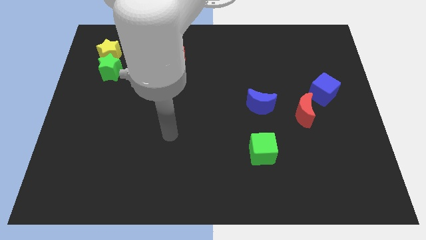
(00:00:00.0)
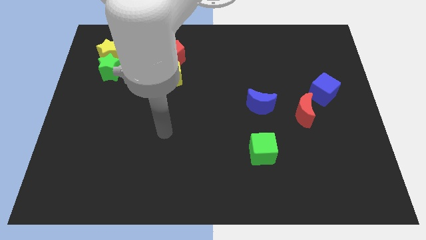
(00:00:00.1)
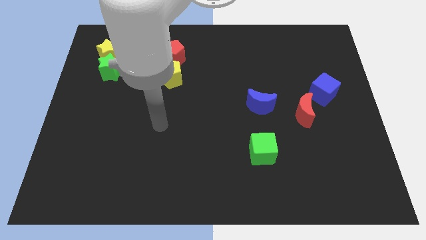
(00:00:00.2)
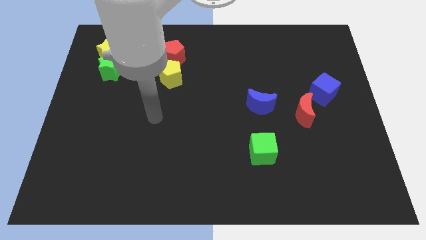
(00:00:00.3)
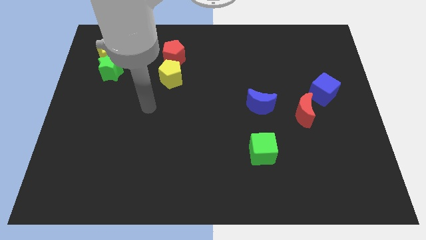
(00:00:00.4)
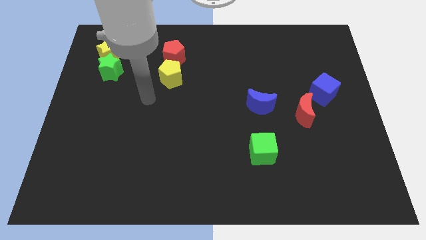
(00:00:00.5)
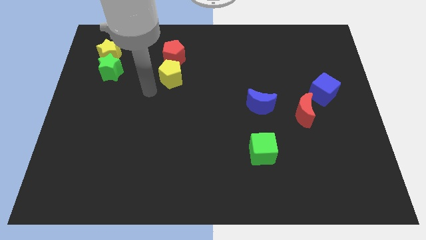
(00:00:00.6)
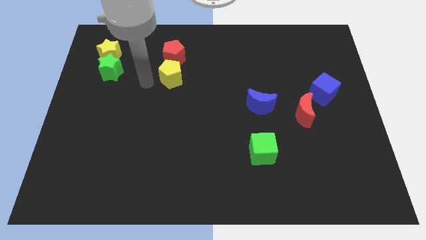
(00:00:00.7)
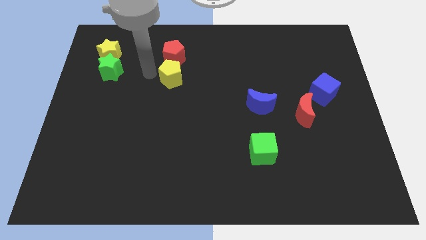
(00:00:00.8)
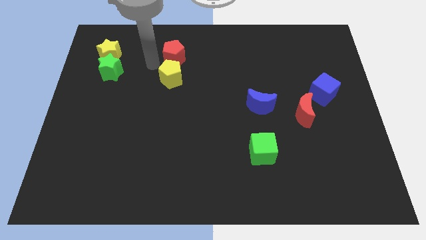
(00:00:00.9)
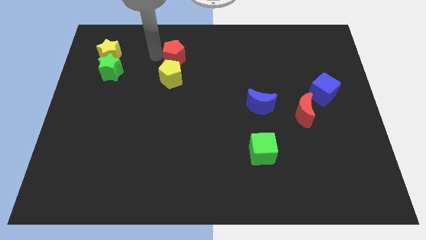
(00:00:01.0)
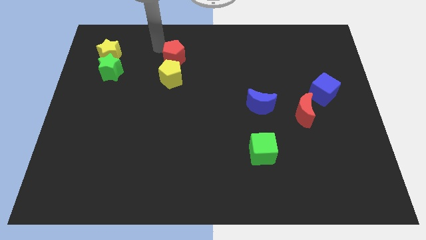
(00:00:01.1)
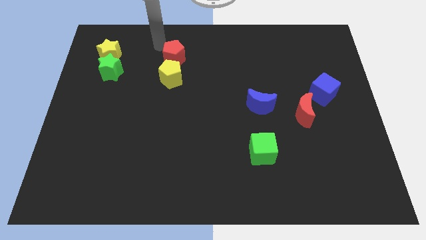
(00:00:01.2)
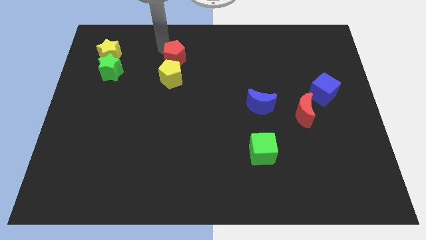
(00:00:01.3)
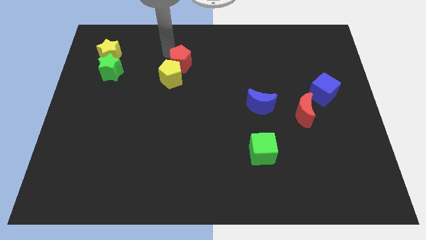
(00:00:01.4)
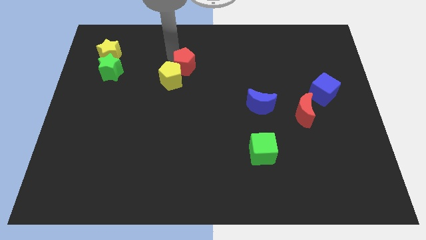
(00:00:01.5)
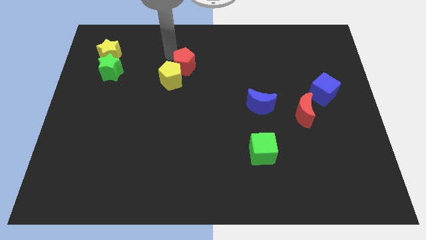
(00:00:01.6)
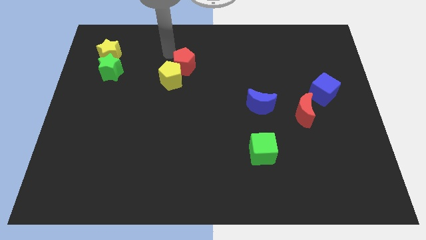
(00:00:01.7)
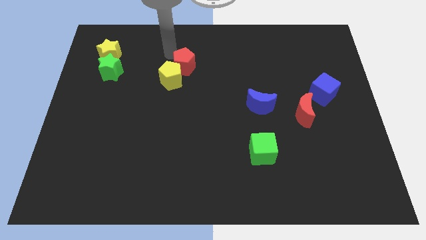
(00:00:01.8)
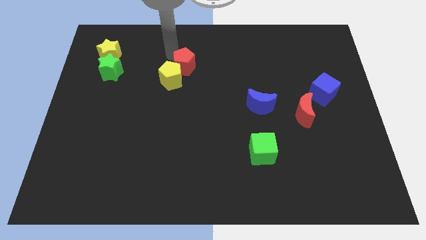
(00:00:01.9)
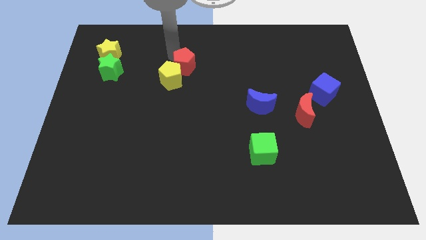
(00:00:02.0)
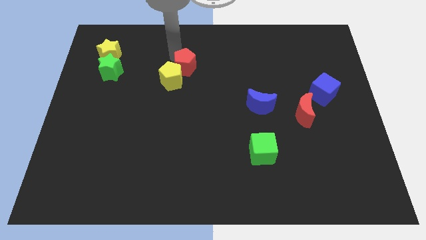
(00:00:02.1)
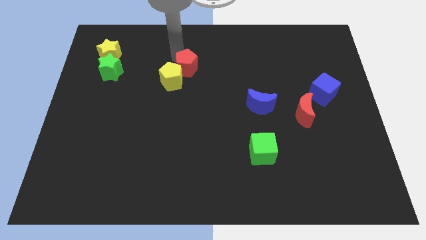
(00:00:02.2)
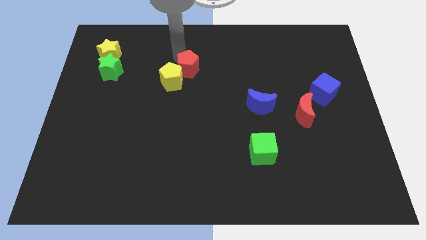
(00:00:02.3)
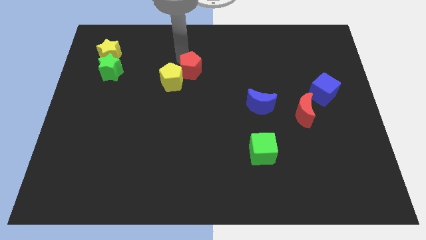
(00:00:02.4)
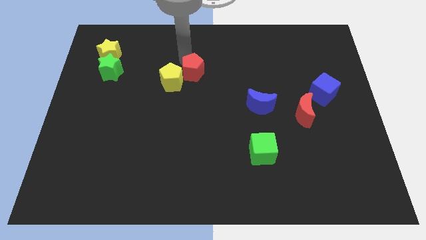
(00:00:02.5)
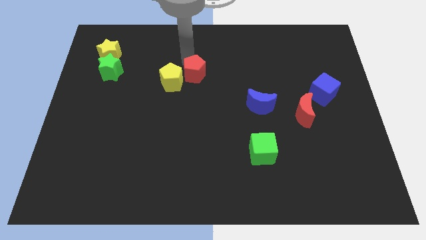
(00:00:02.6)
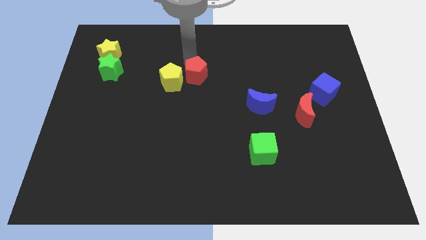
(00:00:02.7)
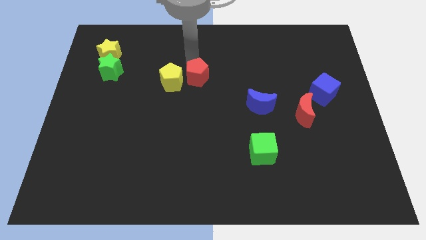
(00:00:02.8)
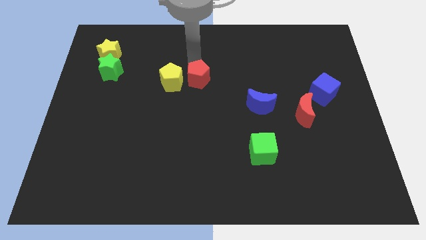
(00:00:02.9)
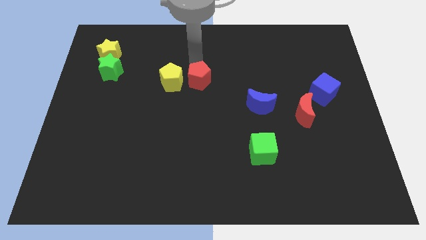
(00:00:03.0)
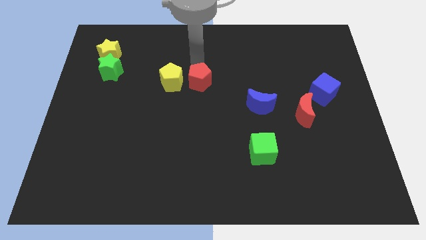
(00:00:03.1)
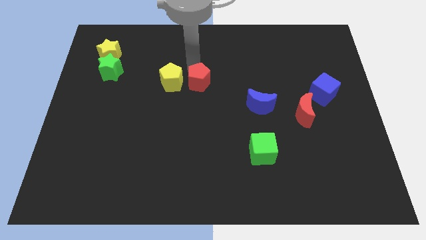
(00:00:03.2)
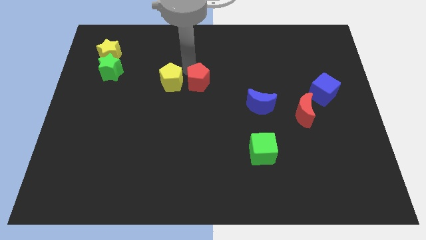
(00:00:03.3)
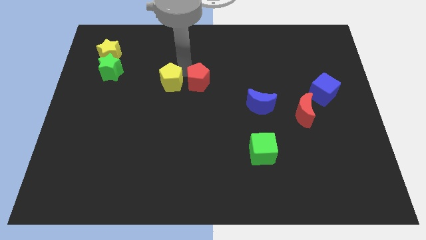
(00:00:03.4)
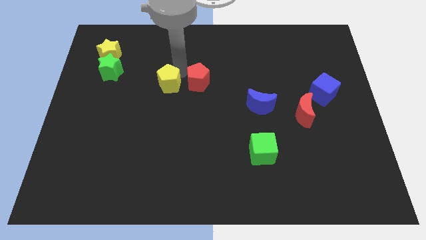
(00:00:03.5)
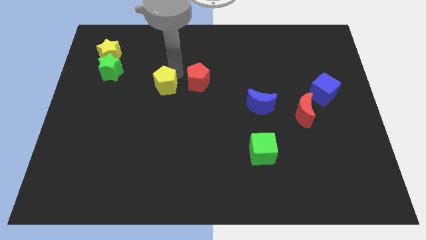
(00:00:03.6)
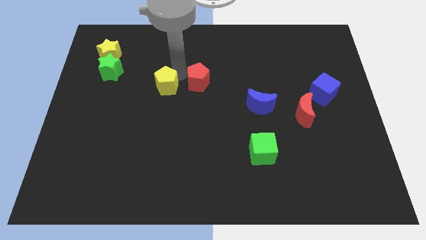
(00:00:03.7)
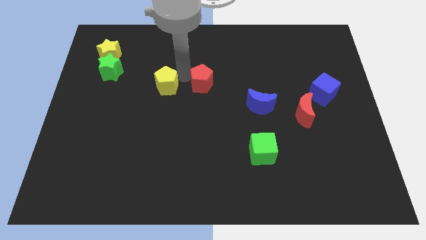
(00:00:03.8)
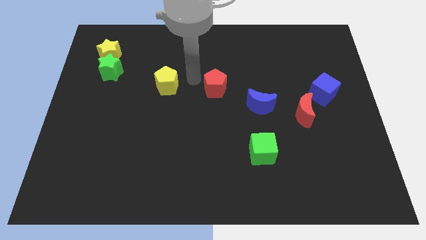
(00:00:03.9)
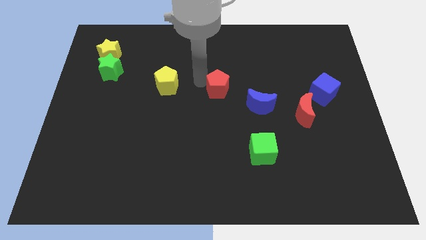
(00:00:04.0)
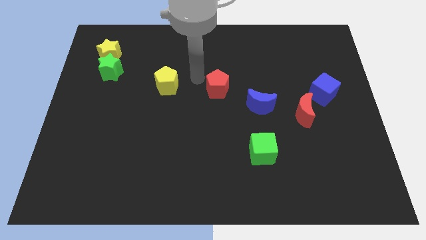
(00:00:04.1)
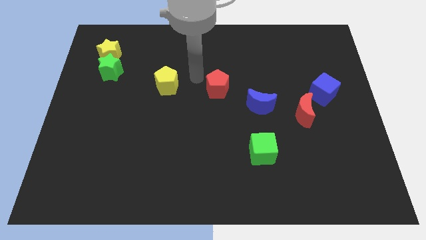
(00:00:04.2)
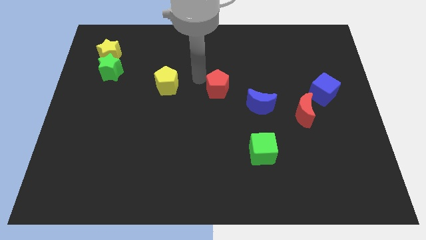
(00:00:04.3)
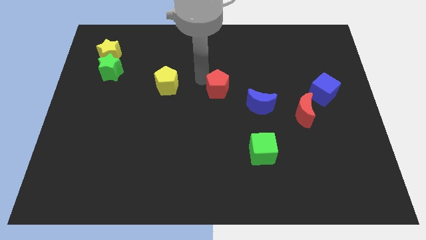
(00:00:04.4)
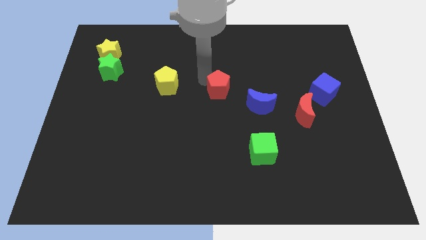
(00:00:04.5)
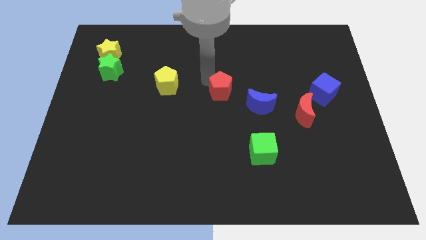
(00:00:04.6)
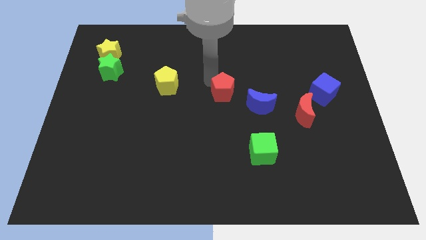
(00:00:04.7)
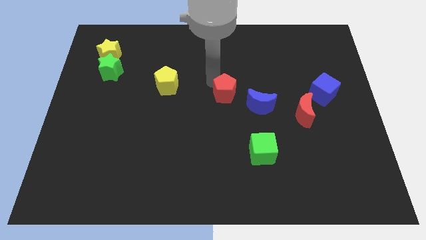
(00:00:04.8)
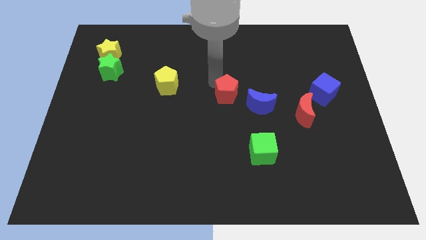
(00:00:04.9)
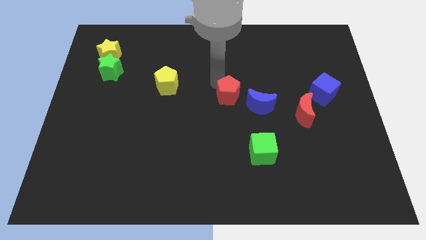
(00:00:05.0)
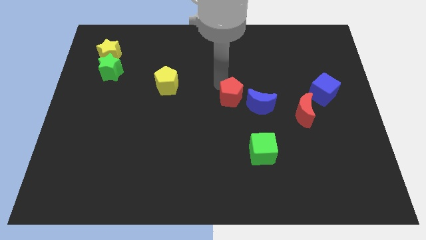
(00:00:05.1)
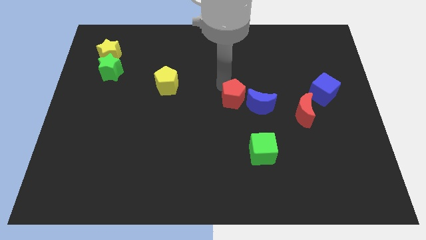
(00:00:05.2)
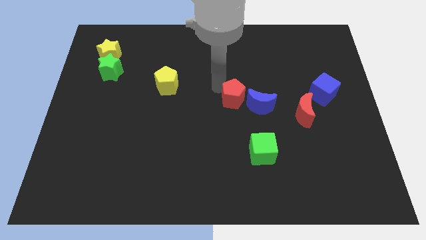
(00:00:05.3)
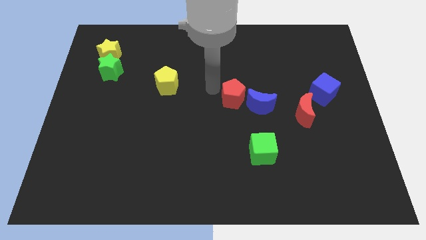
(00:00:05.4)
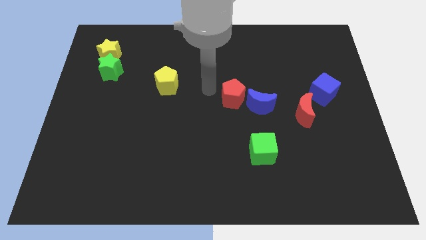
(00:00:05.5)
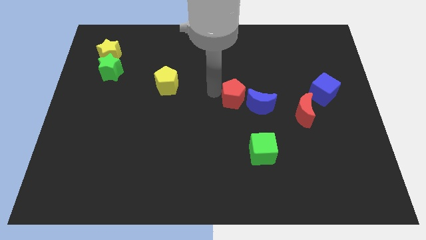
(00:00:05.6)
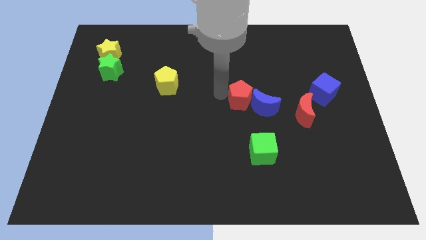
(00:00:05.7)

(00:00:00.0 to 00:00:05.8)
put the red pentagon next to the blue moon

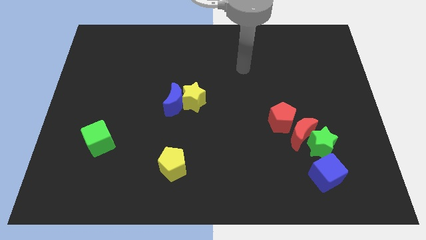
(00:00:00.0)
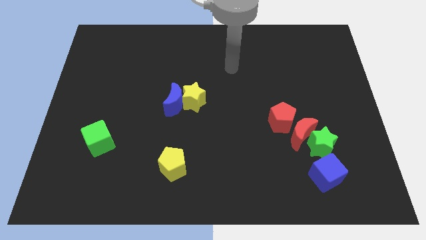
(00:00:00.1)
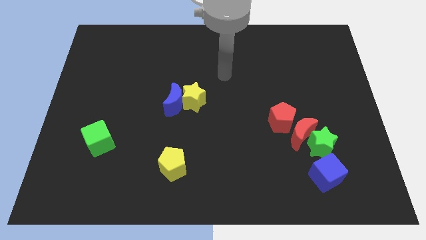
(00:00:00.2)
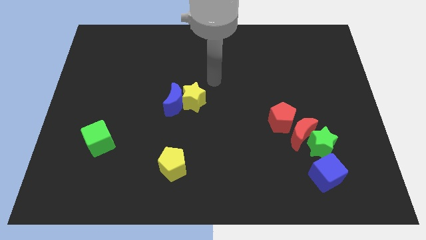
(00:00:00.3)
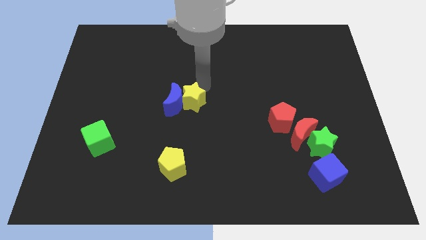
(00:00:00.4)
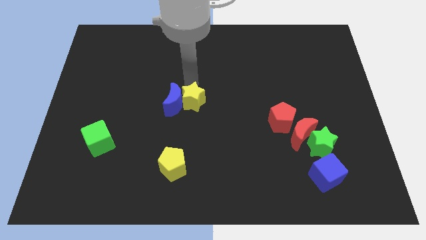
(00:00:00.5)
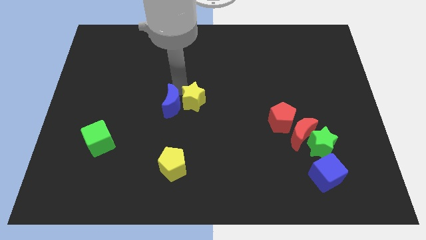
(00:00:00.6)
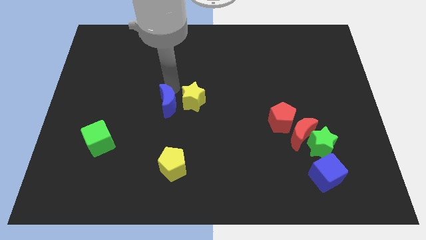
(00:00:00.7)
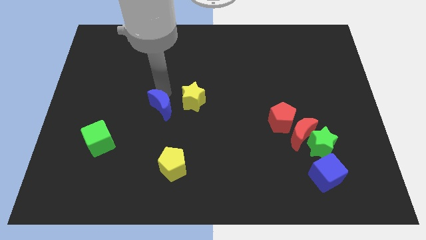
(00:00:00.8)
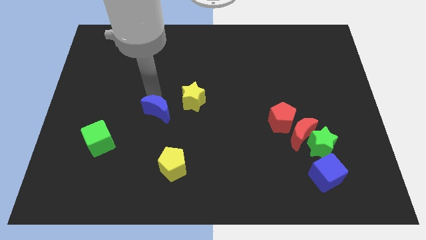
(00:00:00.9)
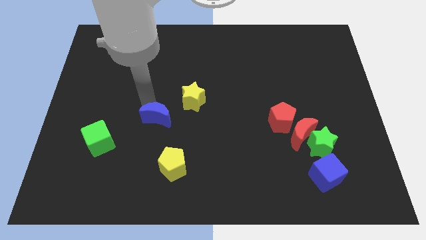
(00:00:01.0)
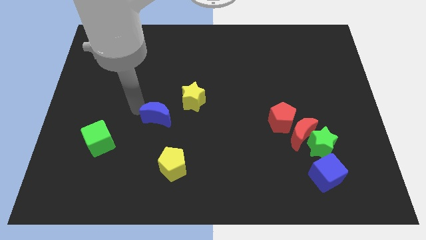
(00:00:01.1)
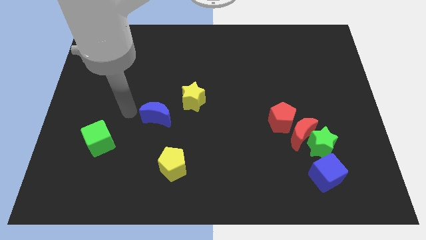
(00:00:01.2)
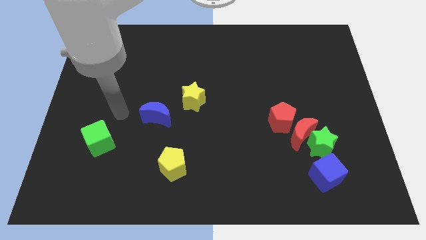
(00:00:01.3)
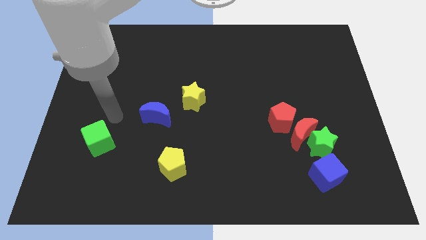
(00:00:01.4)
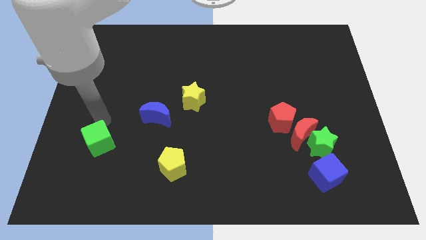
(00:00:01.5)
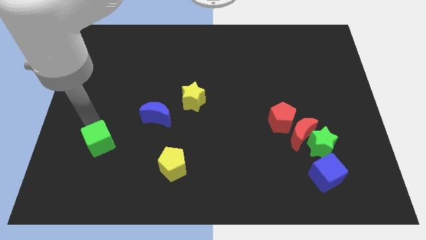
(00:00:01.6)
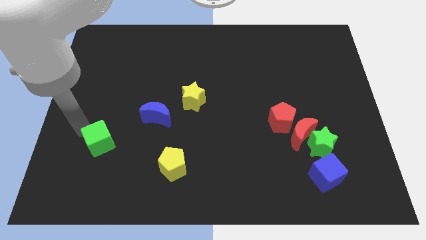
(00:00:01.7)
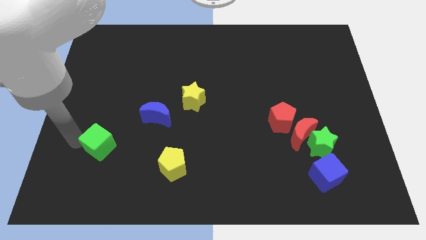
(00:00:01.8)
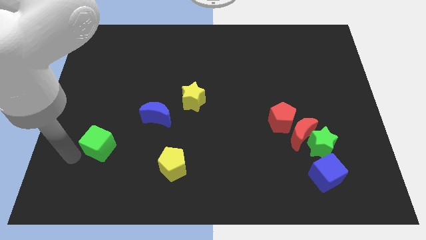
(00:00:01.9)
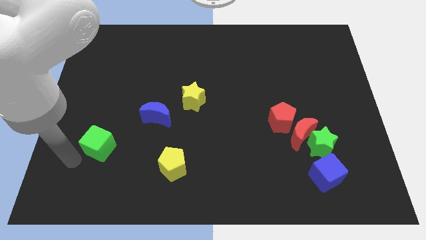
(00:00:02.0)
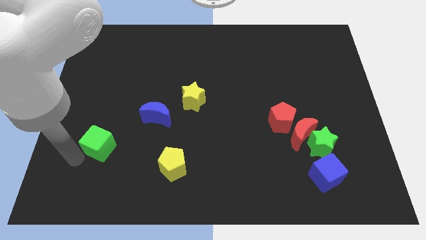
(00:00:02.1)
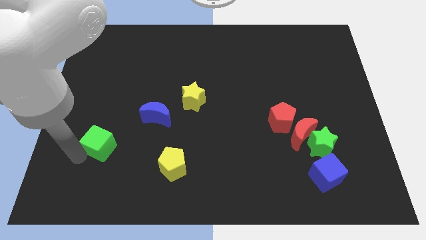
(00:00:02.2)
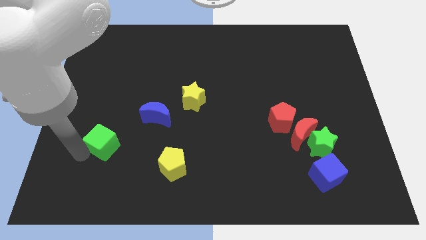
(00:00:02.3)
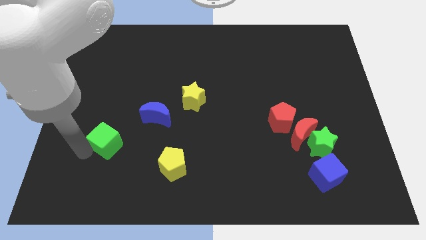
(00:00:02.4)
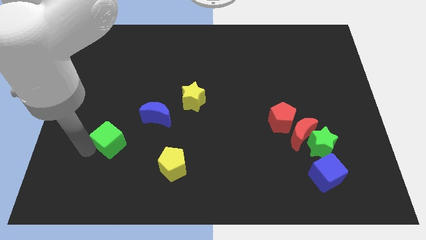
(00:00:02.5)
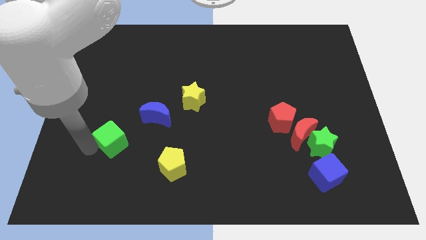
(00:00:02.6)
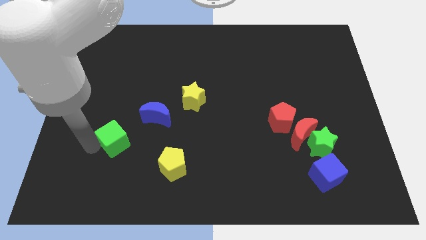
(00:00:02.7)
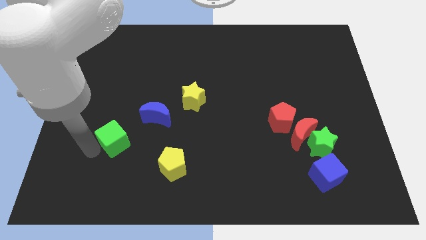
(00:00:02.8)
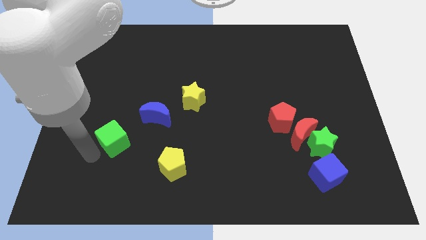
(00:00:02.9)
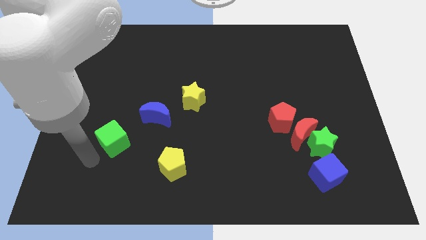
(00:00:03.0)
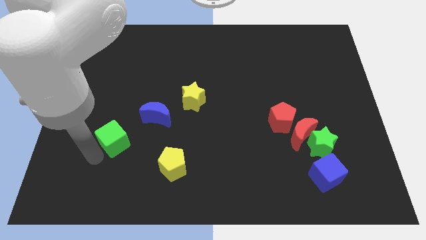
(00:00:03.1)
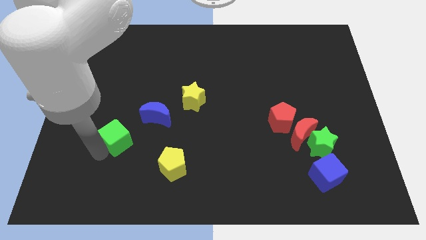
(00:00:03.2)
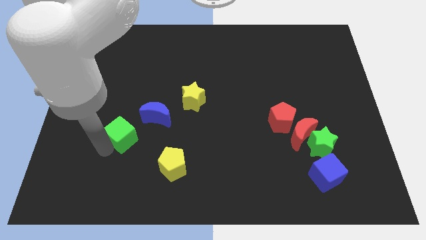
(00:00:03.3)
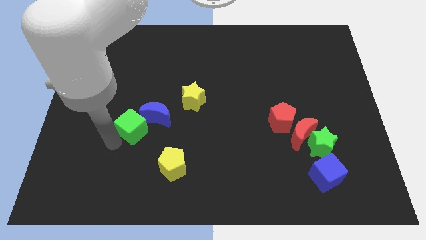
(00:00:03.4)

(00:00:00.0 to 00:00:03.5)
push the green cube towards the blue moon
